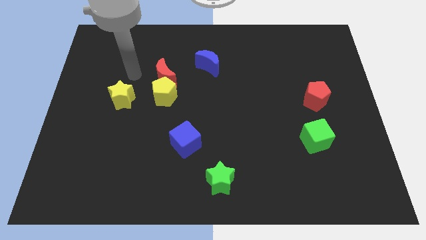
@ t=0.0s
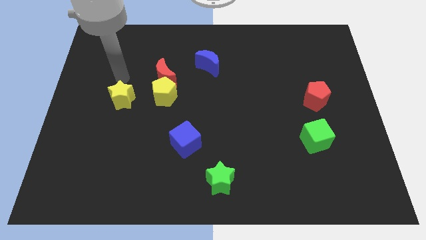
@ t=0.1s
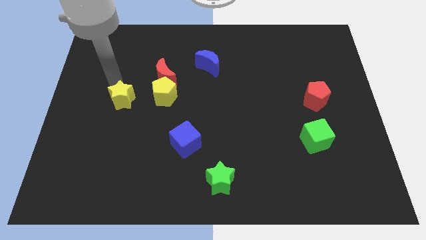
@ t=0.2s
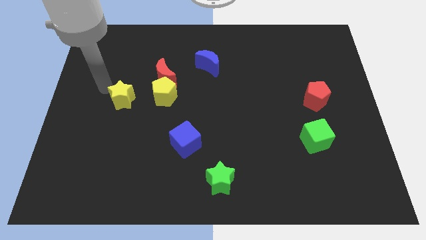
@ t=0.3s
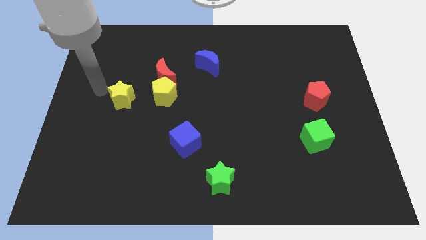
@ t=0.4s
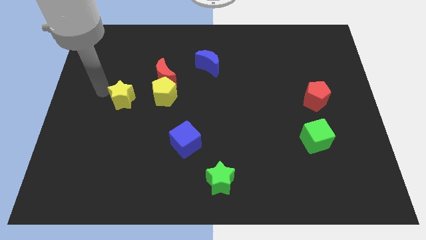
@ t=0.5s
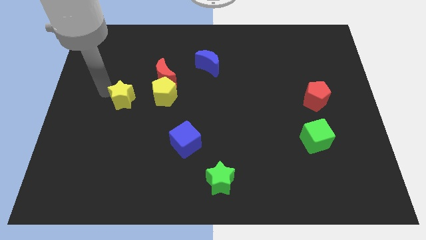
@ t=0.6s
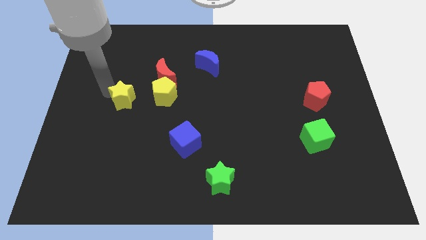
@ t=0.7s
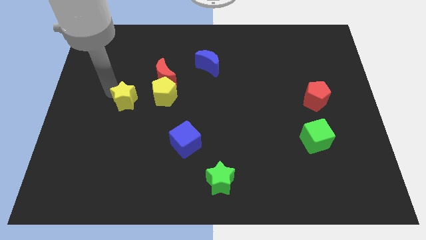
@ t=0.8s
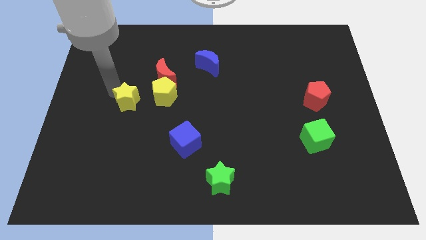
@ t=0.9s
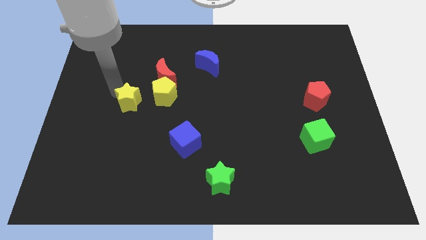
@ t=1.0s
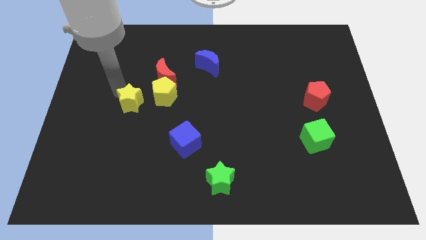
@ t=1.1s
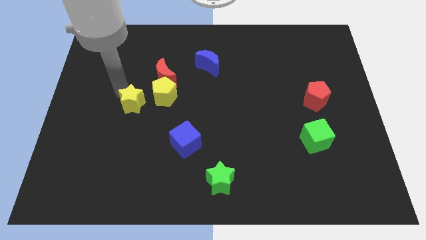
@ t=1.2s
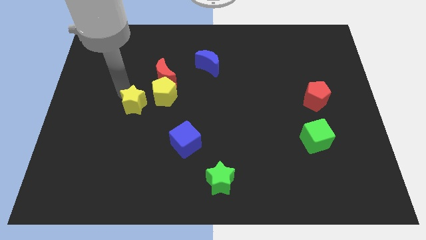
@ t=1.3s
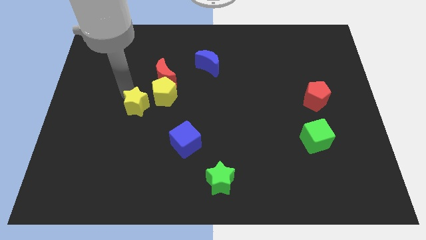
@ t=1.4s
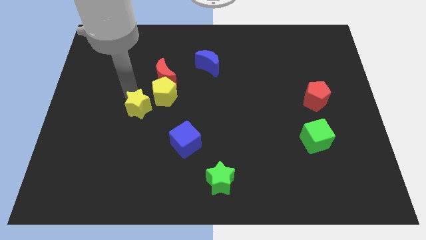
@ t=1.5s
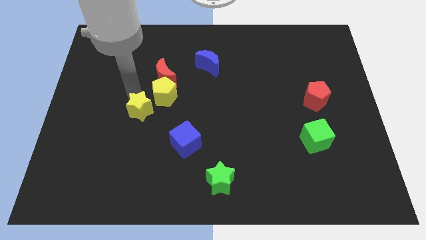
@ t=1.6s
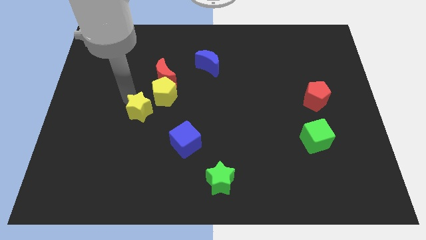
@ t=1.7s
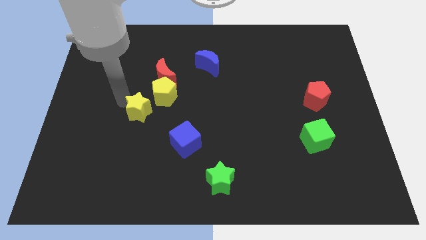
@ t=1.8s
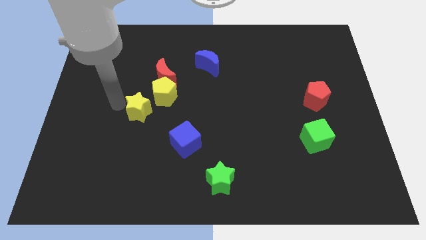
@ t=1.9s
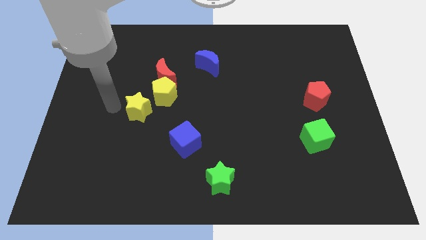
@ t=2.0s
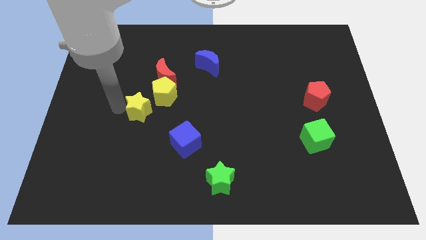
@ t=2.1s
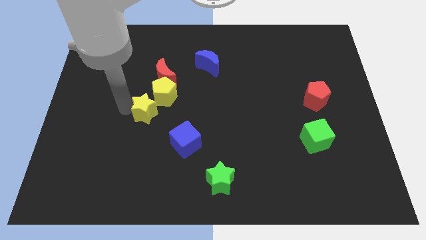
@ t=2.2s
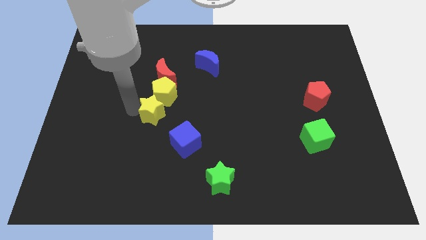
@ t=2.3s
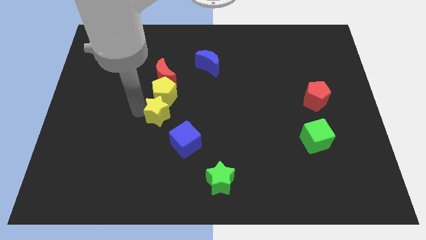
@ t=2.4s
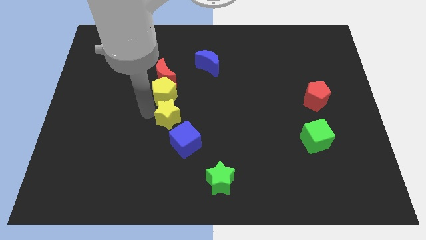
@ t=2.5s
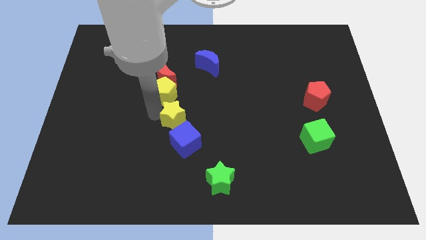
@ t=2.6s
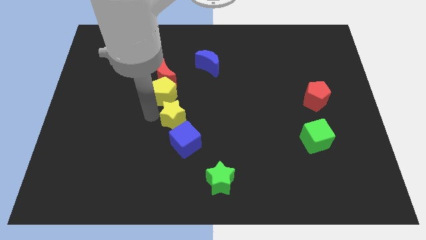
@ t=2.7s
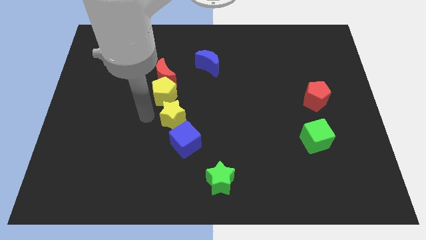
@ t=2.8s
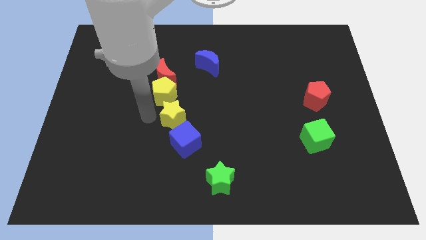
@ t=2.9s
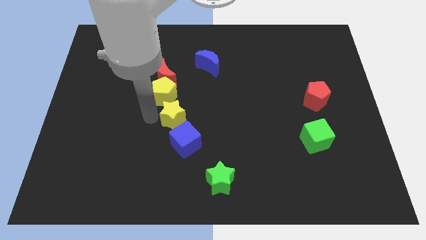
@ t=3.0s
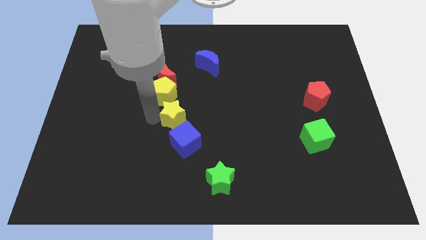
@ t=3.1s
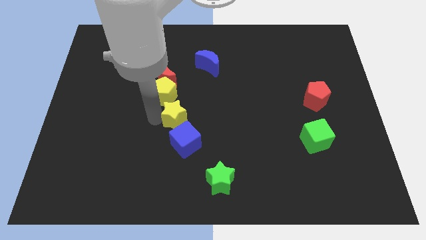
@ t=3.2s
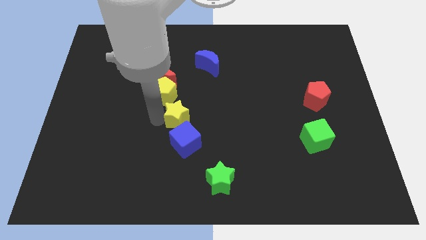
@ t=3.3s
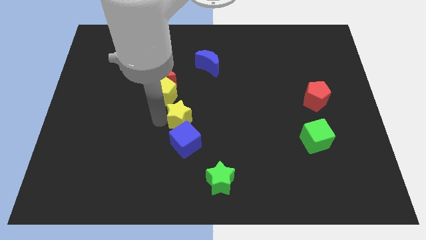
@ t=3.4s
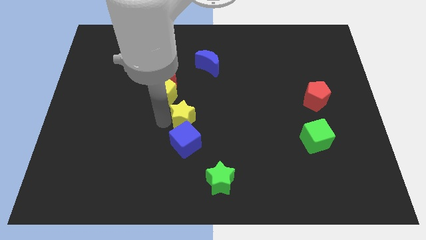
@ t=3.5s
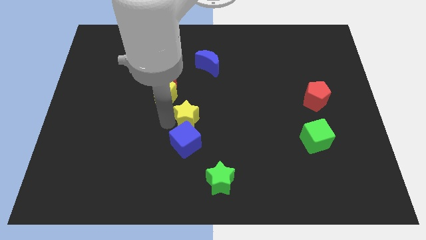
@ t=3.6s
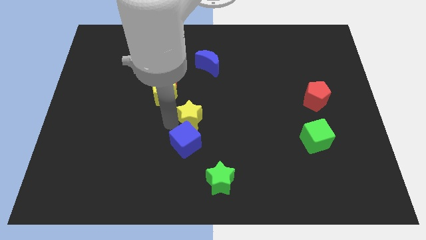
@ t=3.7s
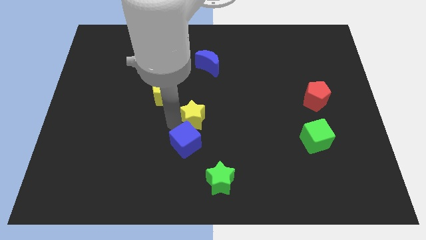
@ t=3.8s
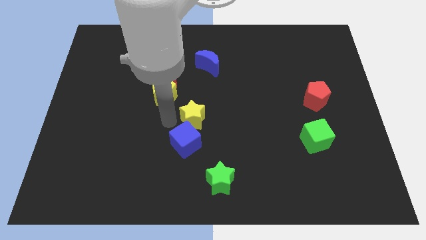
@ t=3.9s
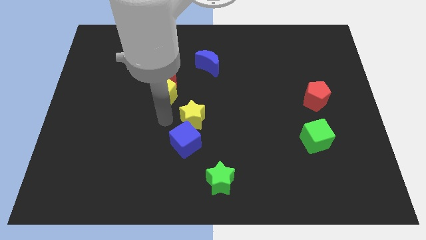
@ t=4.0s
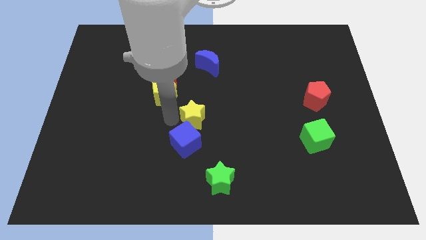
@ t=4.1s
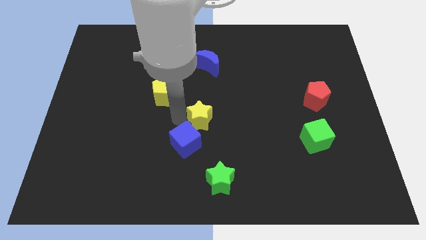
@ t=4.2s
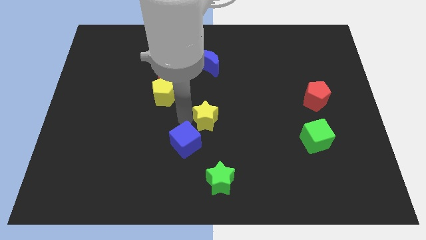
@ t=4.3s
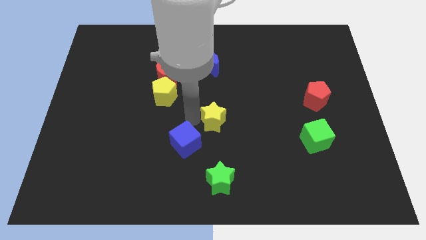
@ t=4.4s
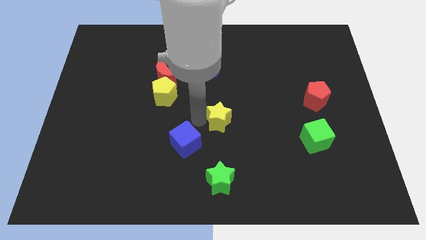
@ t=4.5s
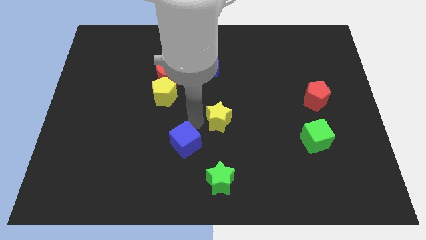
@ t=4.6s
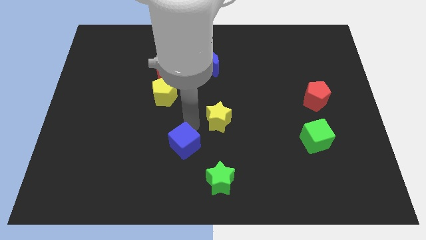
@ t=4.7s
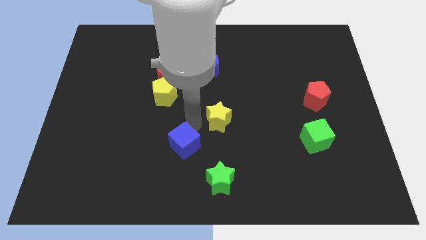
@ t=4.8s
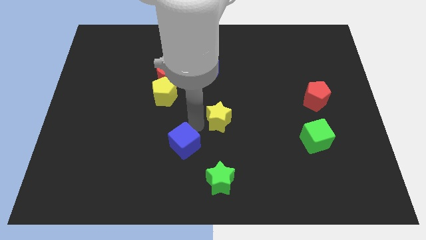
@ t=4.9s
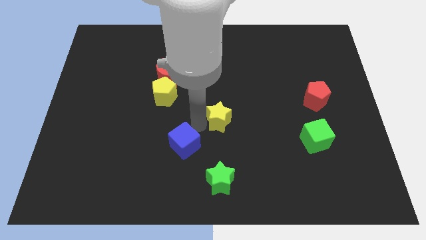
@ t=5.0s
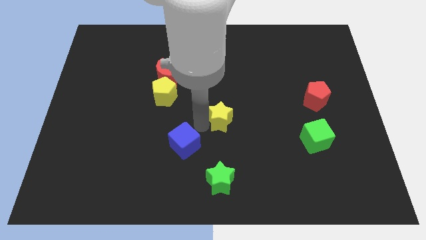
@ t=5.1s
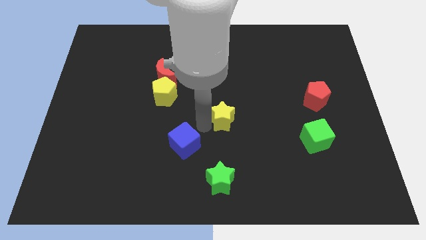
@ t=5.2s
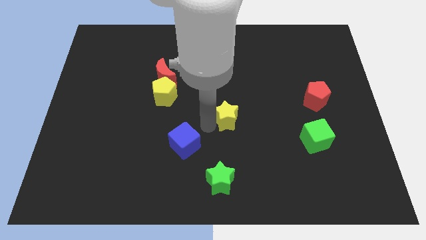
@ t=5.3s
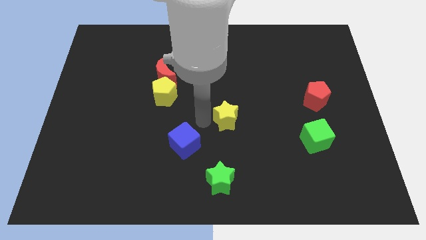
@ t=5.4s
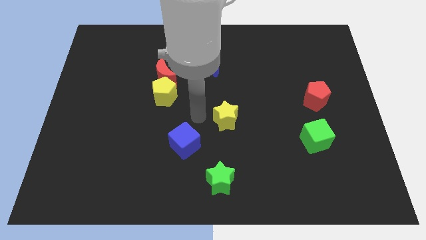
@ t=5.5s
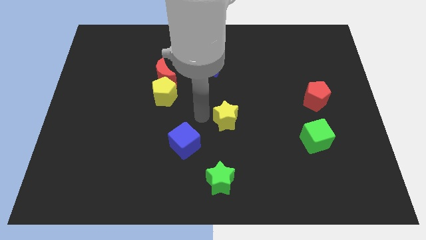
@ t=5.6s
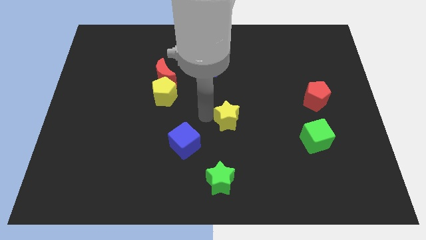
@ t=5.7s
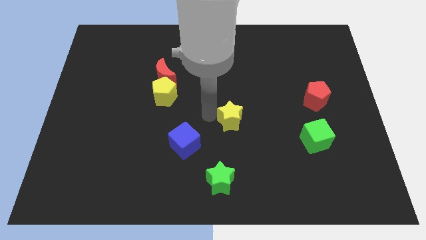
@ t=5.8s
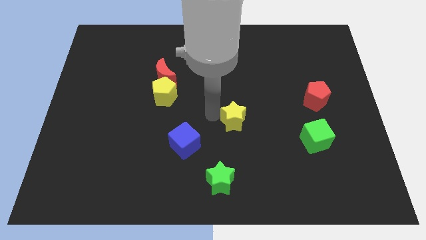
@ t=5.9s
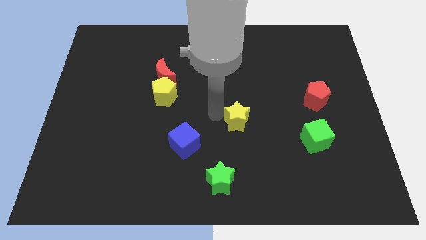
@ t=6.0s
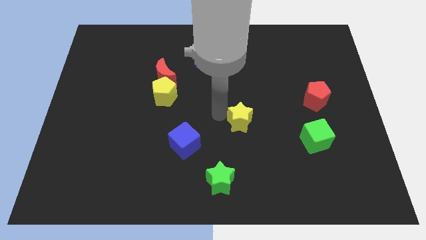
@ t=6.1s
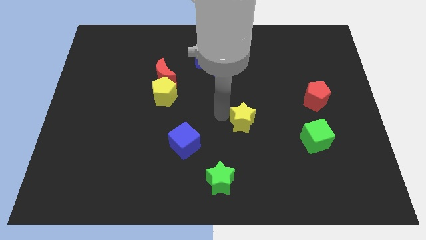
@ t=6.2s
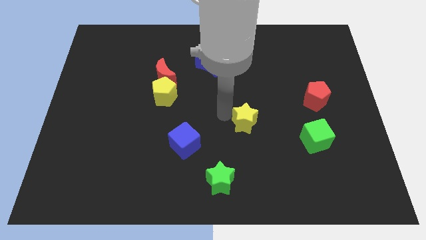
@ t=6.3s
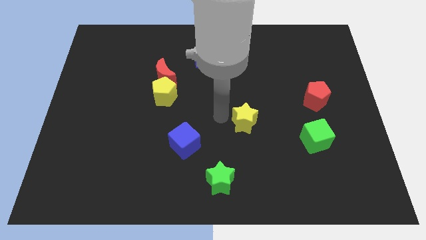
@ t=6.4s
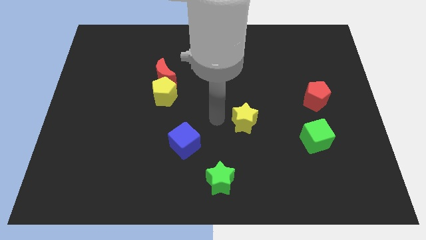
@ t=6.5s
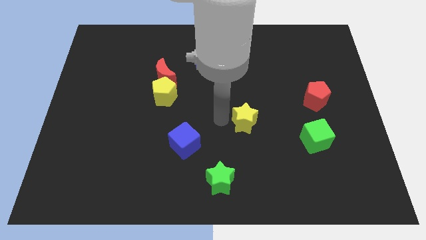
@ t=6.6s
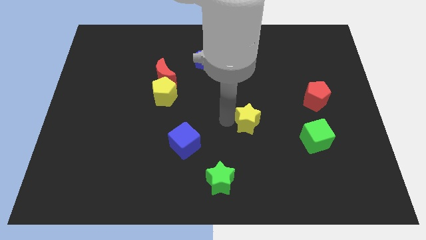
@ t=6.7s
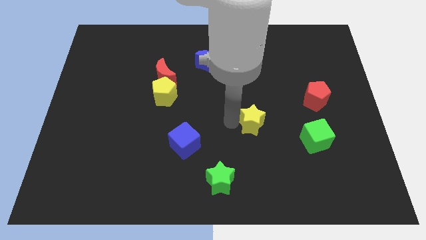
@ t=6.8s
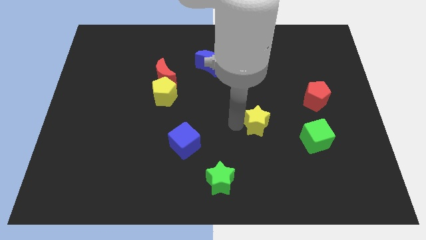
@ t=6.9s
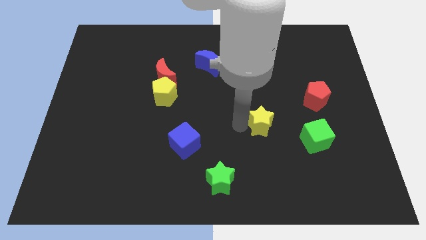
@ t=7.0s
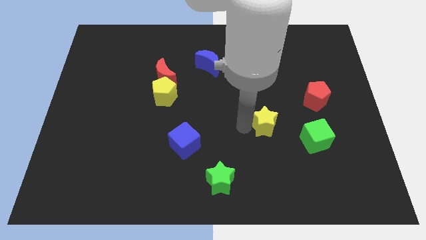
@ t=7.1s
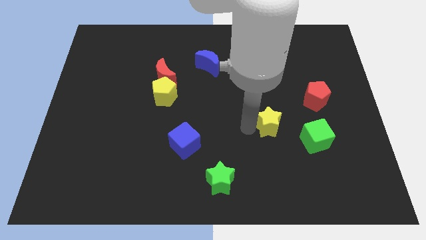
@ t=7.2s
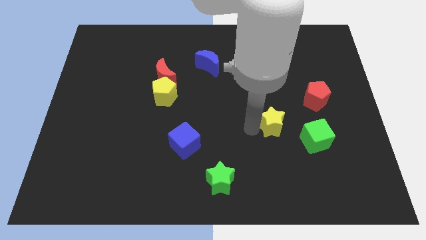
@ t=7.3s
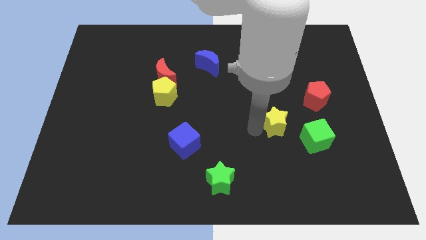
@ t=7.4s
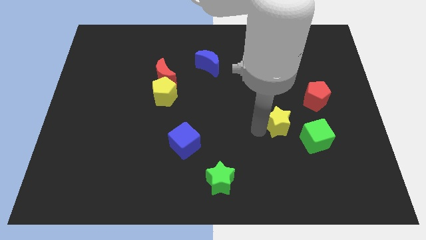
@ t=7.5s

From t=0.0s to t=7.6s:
move the yellow star to the bottom left side of the red pentagon

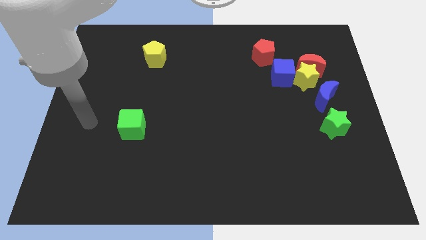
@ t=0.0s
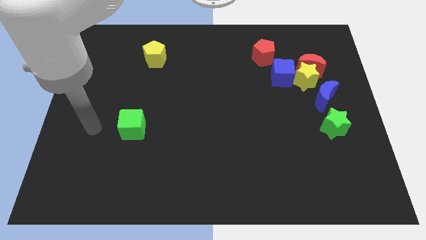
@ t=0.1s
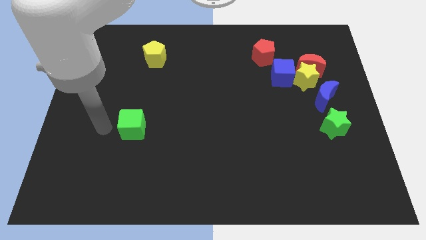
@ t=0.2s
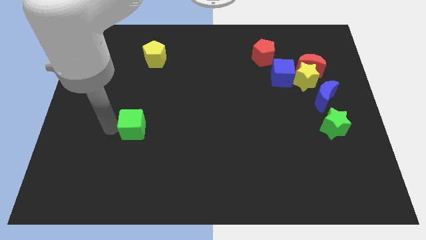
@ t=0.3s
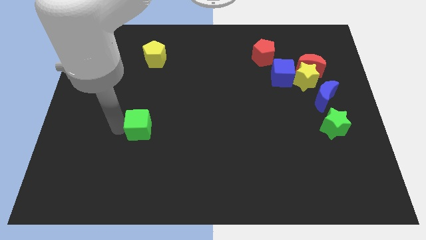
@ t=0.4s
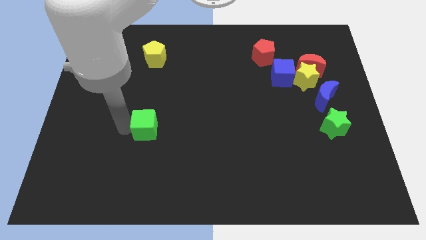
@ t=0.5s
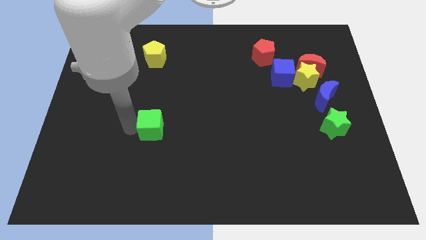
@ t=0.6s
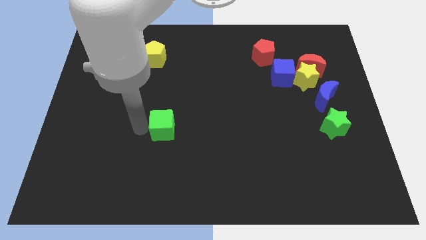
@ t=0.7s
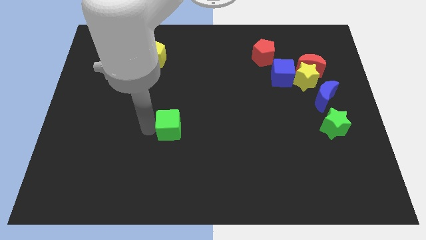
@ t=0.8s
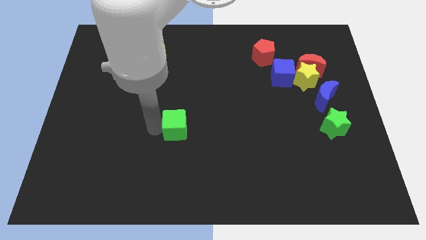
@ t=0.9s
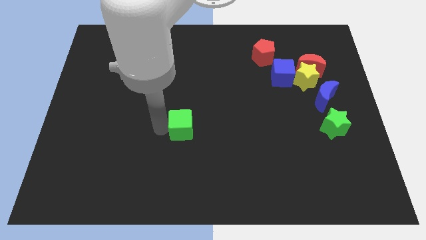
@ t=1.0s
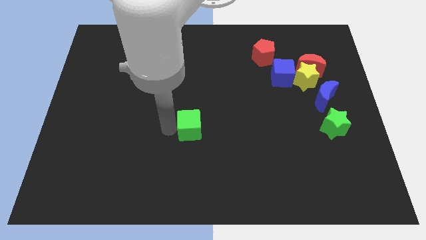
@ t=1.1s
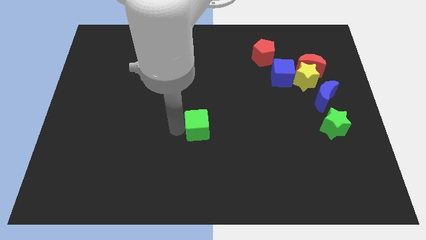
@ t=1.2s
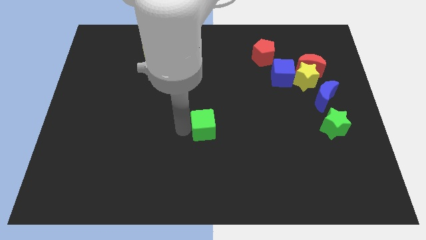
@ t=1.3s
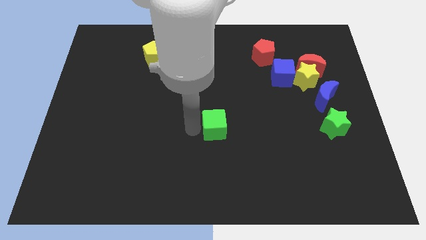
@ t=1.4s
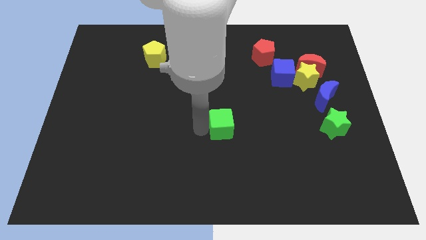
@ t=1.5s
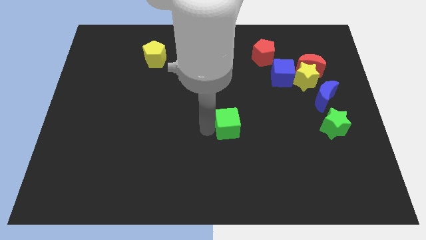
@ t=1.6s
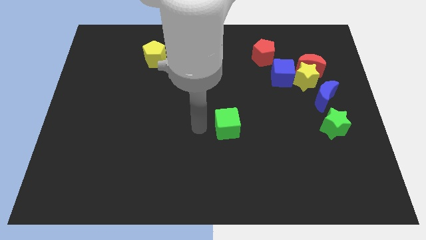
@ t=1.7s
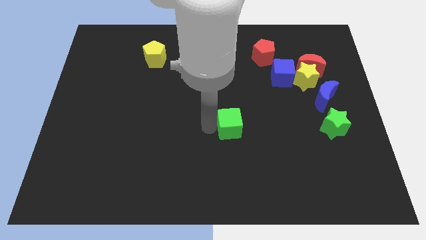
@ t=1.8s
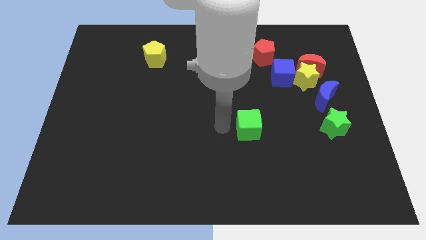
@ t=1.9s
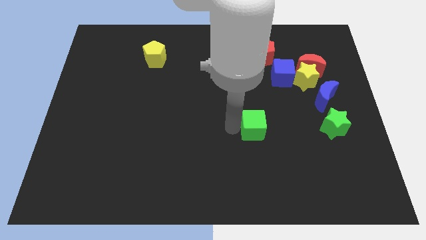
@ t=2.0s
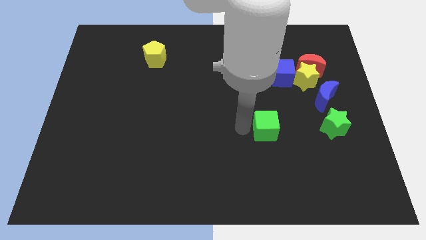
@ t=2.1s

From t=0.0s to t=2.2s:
put the green cube left of the green star
